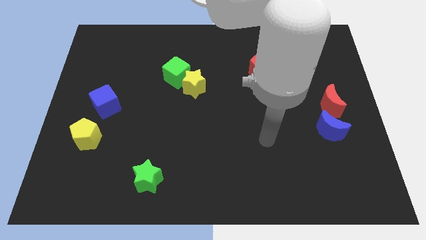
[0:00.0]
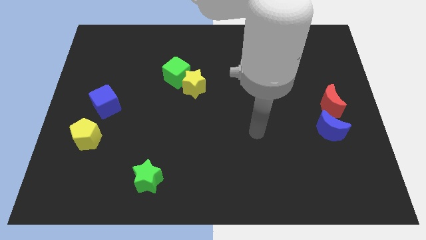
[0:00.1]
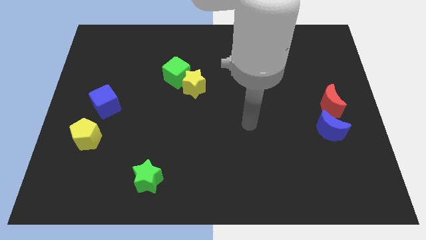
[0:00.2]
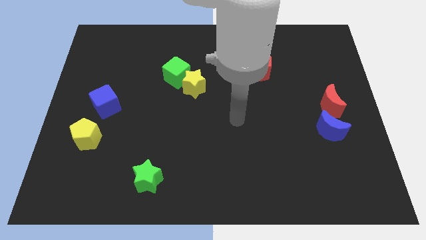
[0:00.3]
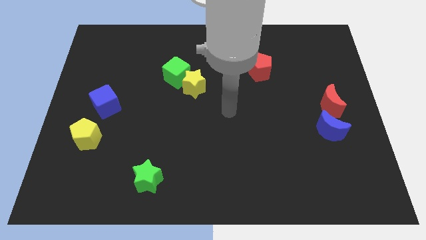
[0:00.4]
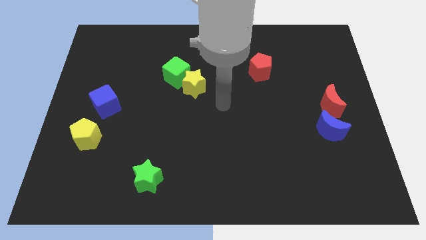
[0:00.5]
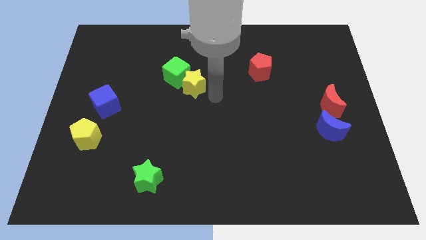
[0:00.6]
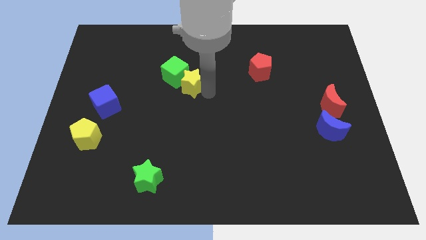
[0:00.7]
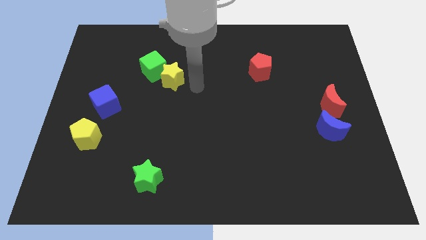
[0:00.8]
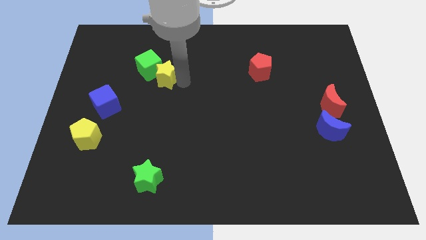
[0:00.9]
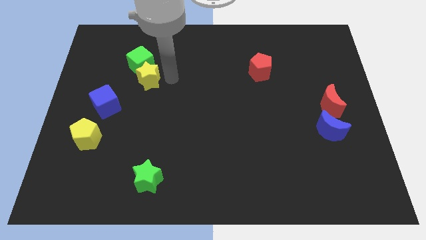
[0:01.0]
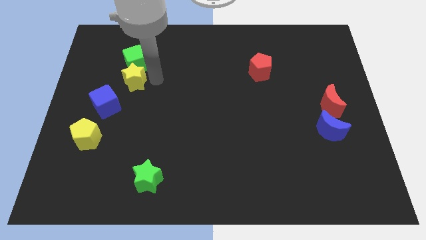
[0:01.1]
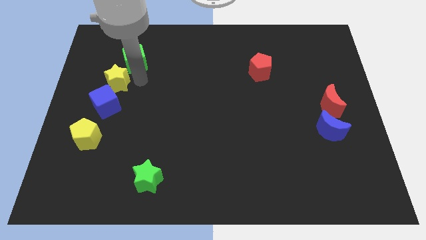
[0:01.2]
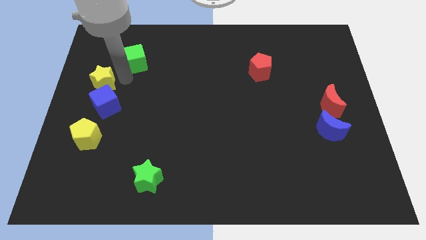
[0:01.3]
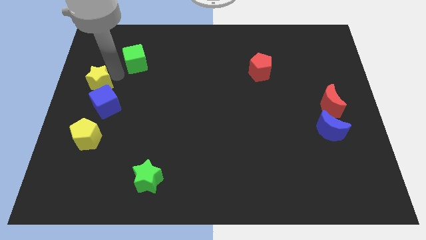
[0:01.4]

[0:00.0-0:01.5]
move the green cube away from the yellow star

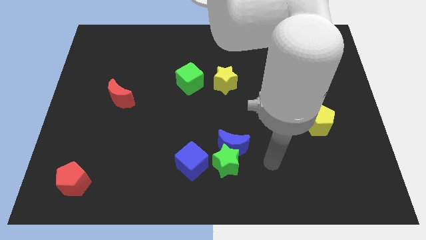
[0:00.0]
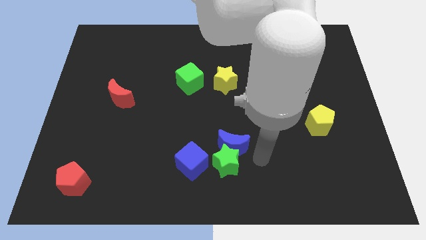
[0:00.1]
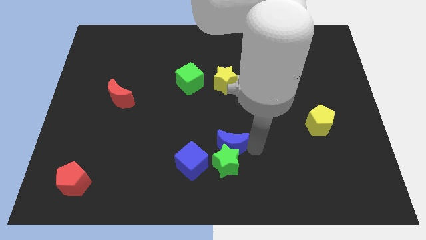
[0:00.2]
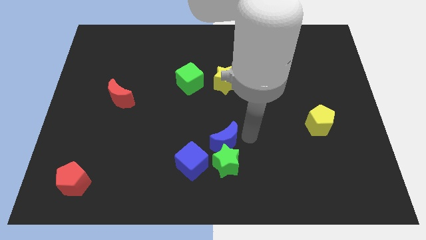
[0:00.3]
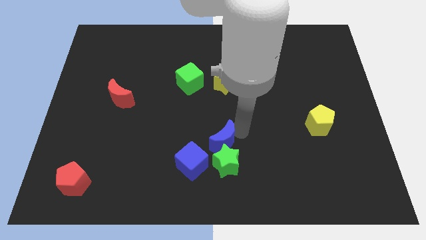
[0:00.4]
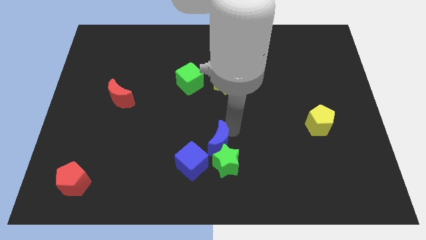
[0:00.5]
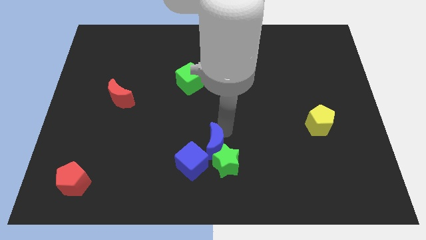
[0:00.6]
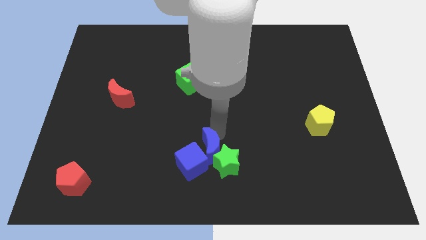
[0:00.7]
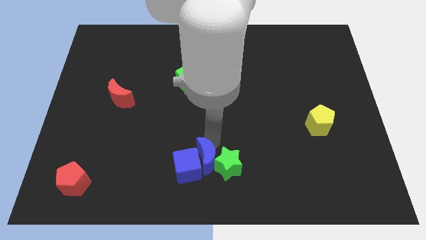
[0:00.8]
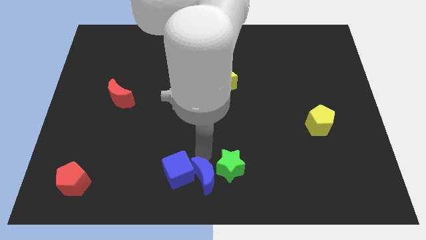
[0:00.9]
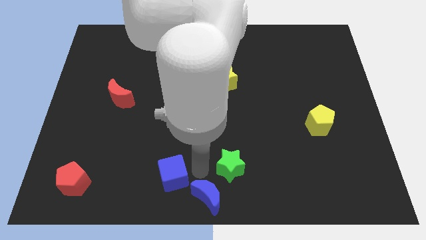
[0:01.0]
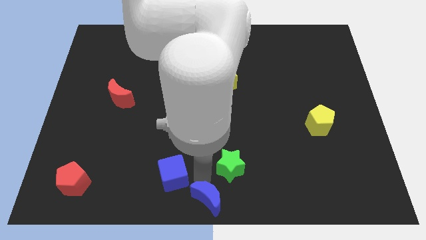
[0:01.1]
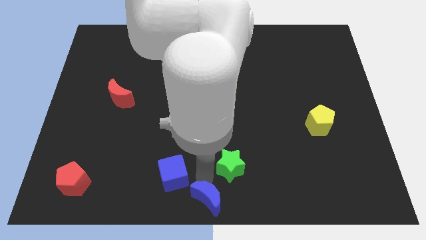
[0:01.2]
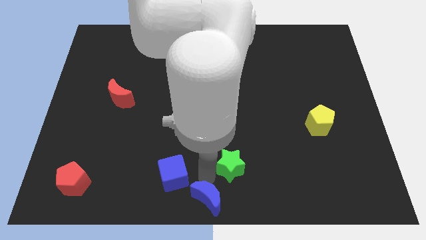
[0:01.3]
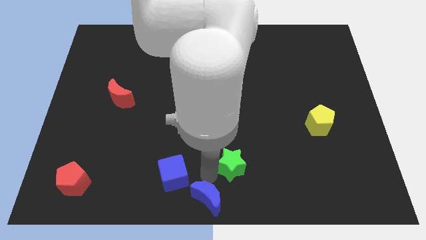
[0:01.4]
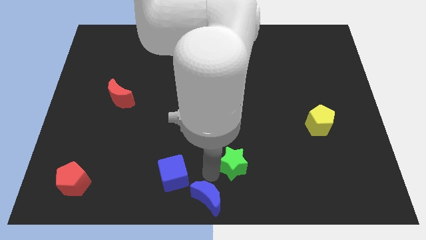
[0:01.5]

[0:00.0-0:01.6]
separate the green star from the blue moon and blue cube

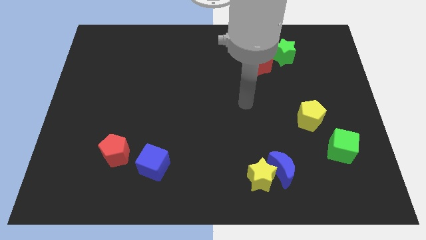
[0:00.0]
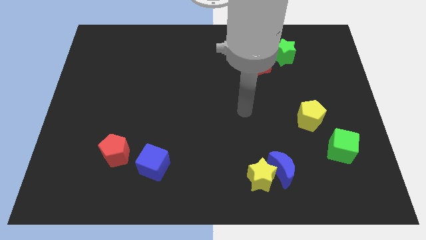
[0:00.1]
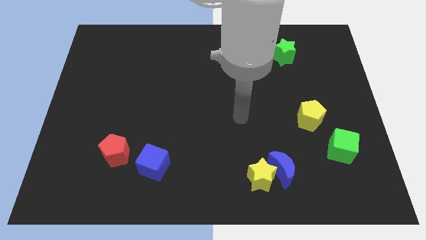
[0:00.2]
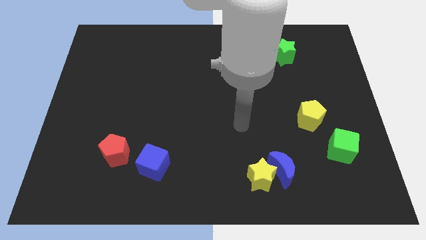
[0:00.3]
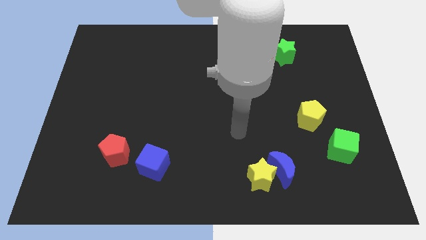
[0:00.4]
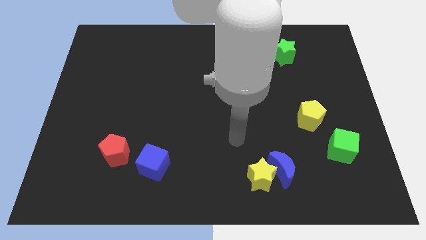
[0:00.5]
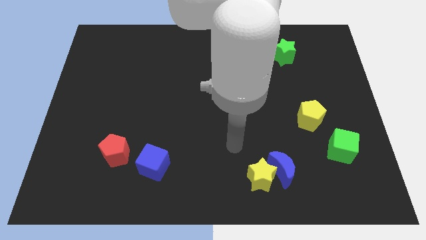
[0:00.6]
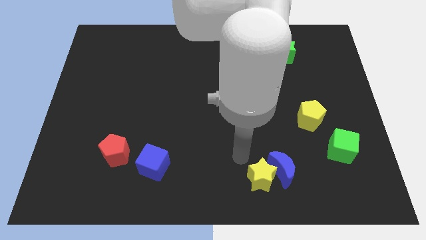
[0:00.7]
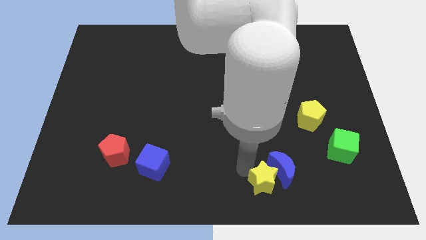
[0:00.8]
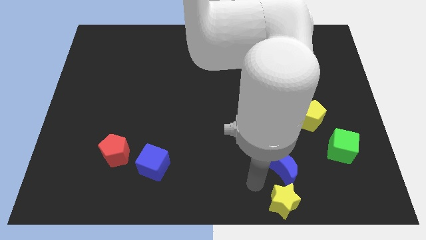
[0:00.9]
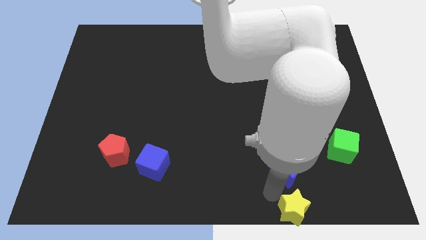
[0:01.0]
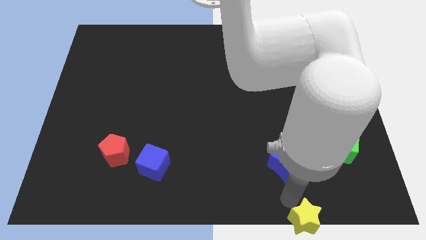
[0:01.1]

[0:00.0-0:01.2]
move the blue moon away from the yellow star

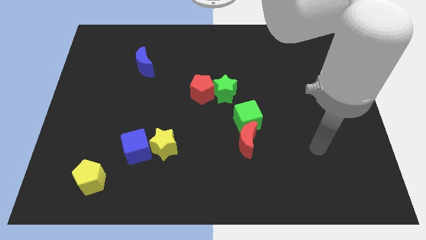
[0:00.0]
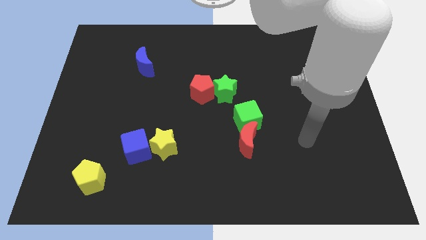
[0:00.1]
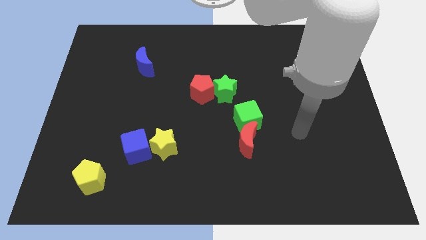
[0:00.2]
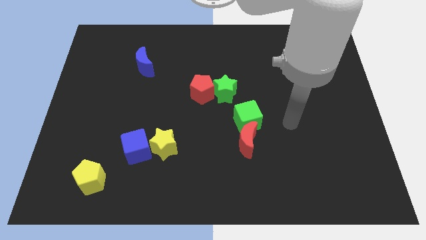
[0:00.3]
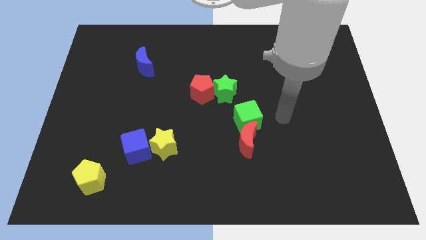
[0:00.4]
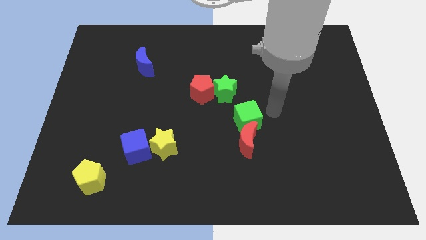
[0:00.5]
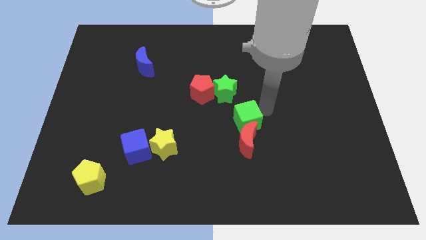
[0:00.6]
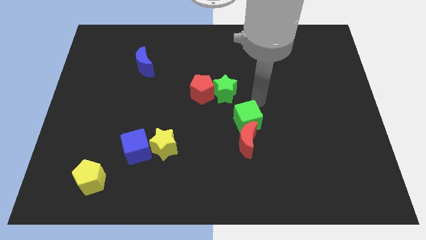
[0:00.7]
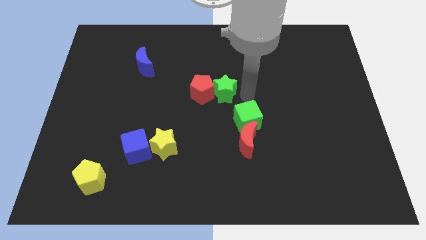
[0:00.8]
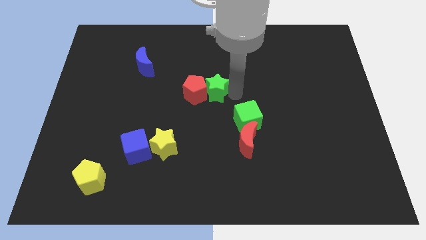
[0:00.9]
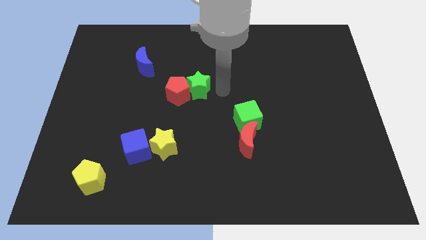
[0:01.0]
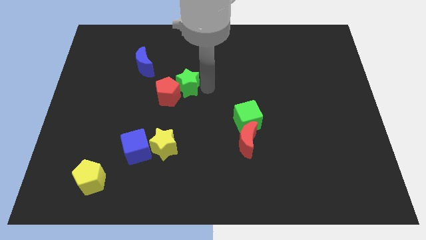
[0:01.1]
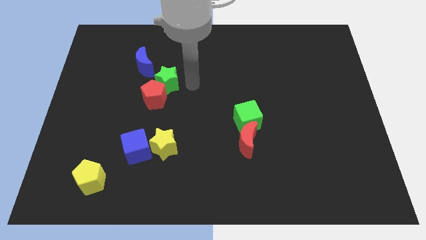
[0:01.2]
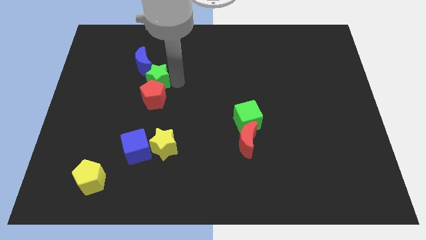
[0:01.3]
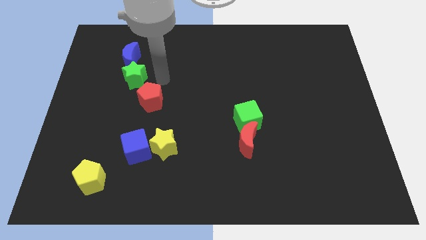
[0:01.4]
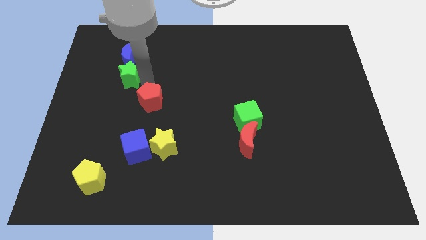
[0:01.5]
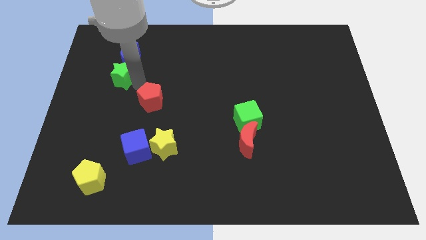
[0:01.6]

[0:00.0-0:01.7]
separate the red pentagon from the green star

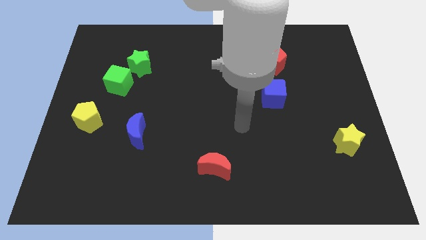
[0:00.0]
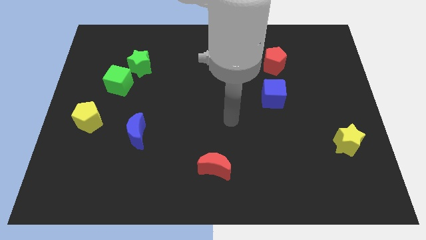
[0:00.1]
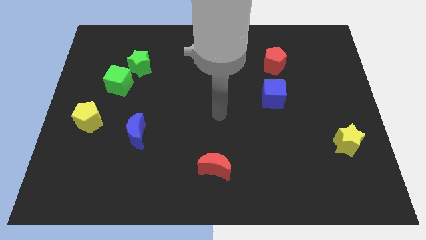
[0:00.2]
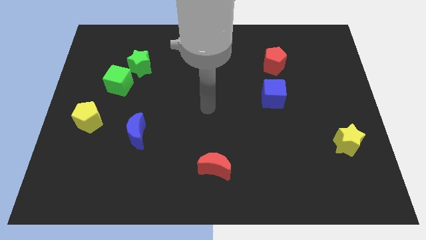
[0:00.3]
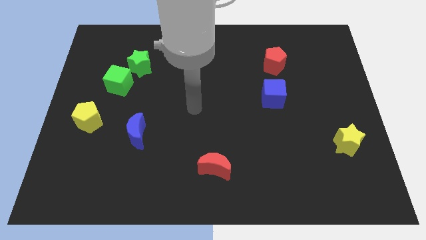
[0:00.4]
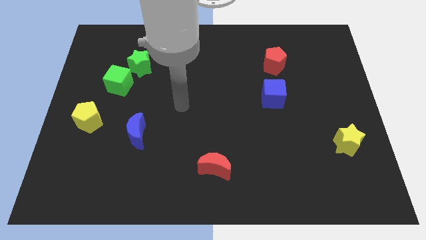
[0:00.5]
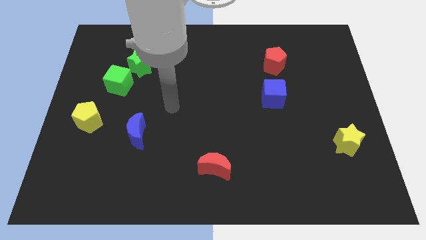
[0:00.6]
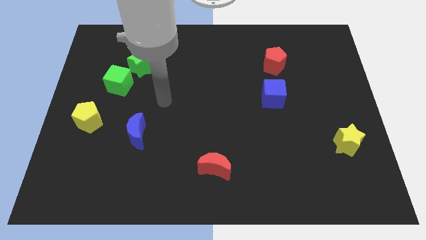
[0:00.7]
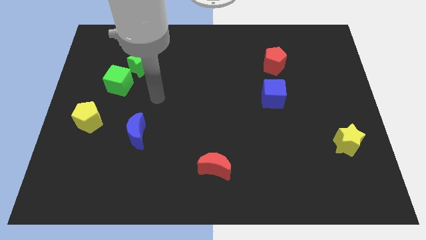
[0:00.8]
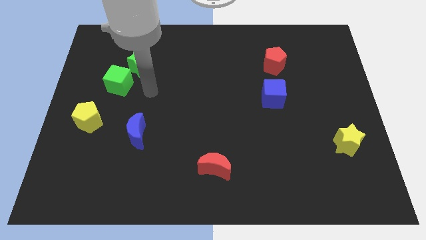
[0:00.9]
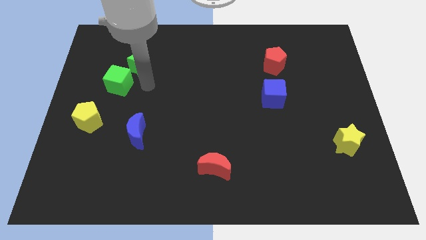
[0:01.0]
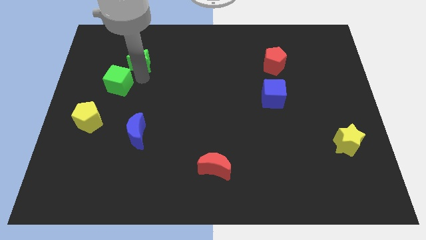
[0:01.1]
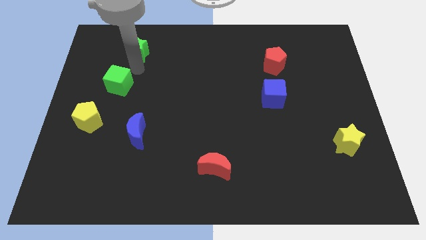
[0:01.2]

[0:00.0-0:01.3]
move the green cube away from the green star

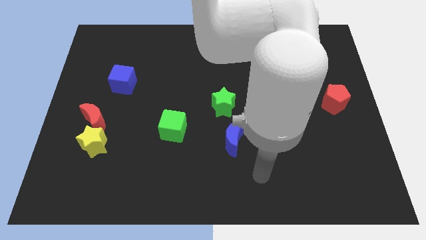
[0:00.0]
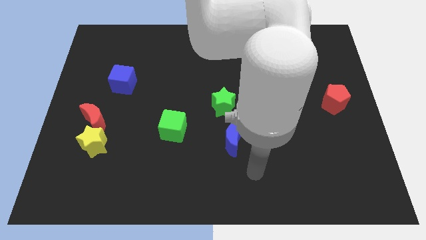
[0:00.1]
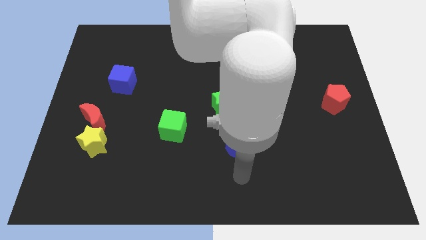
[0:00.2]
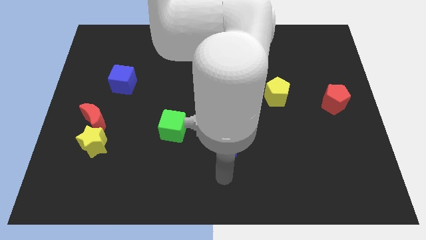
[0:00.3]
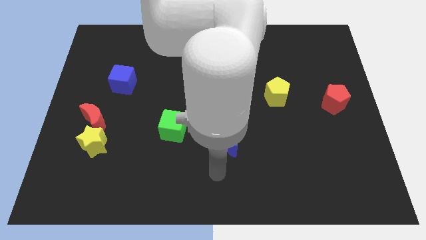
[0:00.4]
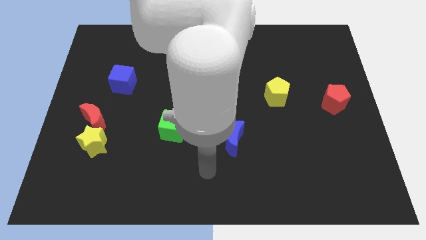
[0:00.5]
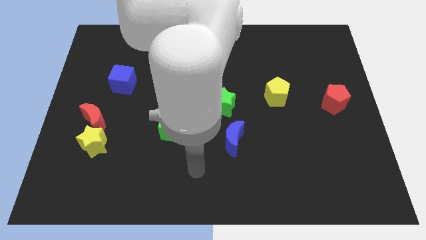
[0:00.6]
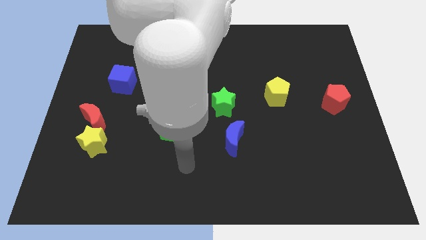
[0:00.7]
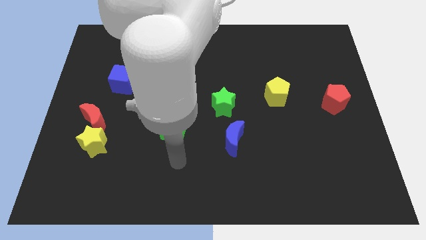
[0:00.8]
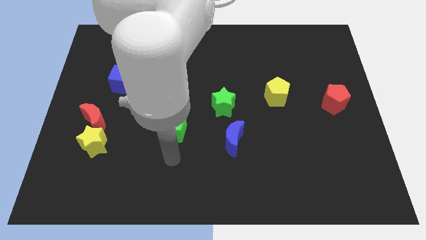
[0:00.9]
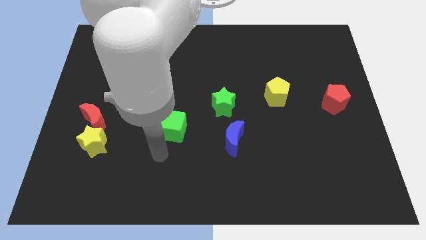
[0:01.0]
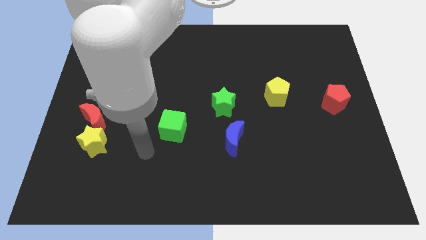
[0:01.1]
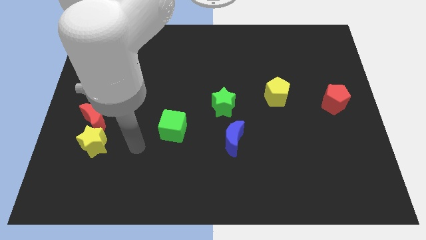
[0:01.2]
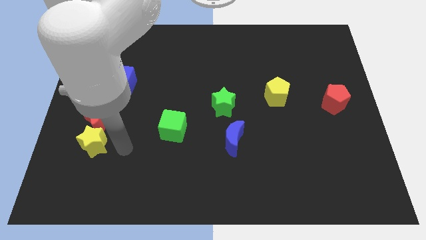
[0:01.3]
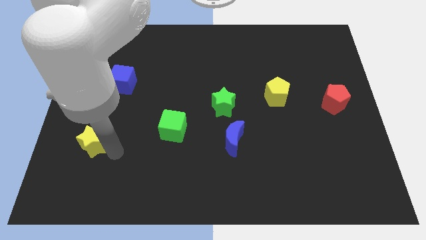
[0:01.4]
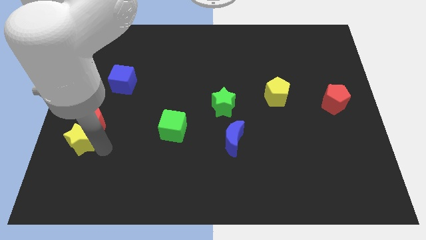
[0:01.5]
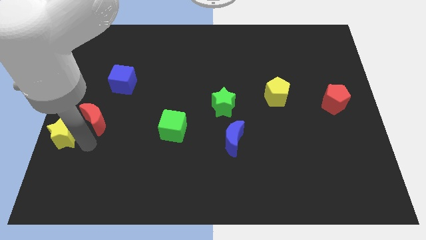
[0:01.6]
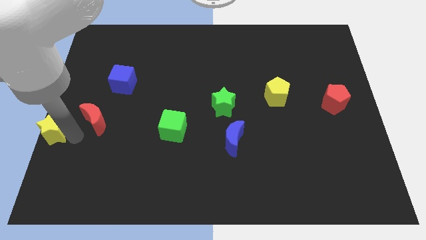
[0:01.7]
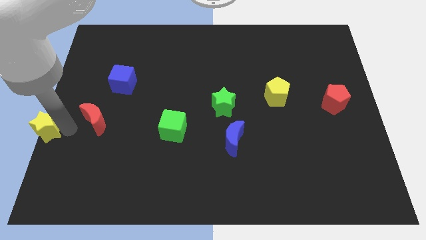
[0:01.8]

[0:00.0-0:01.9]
move the red moon away from the yellow star
